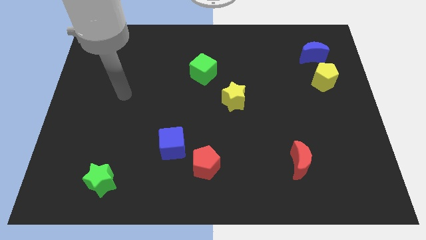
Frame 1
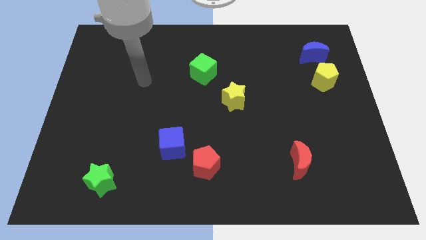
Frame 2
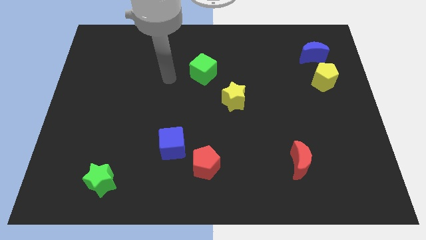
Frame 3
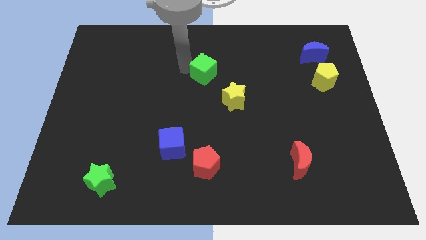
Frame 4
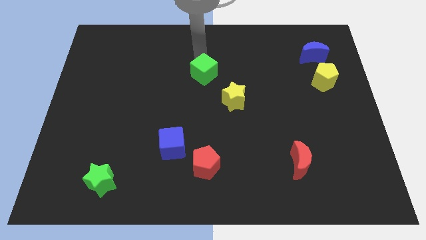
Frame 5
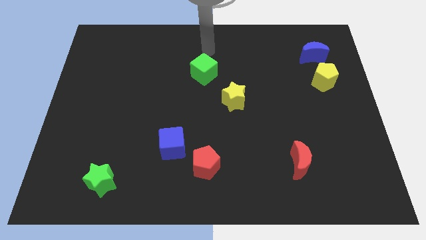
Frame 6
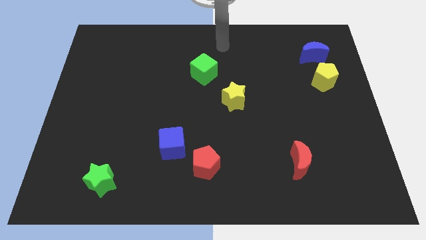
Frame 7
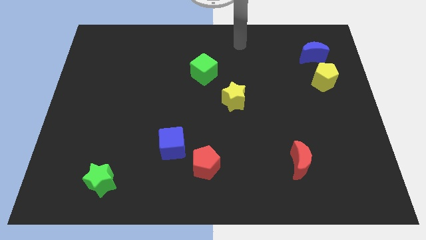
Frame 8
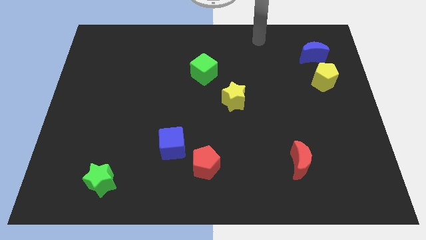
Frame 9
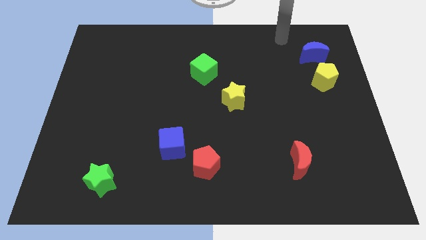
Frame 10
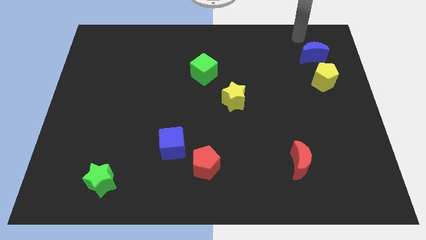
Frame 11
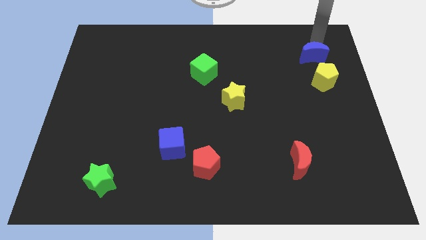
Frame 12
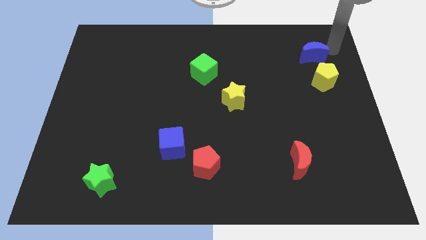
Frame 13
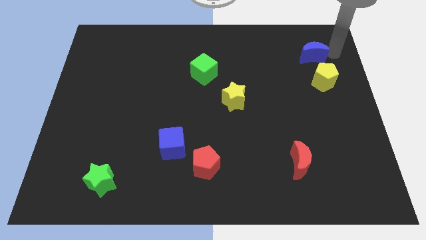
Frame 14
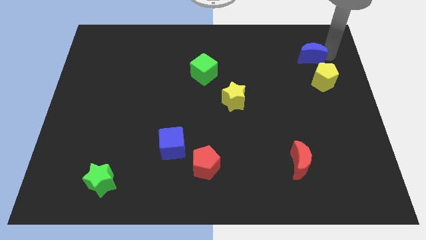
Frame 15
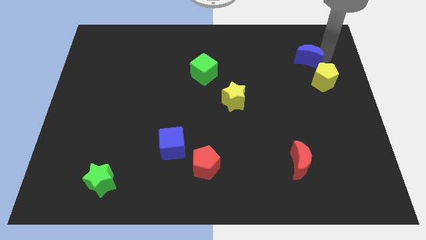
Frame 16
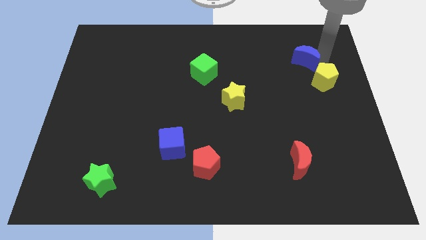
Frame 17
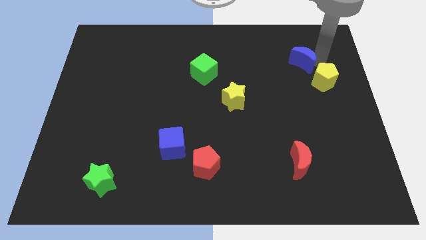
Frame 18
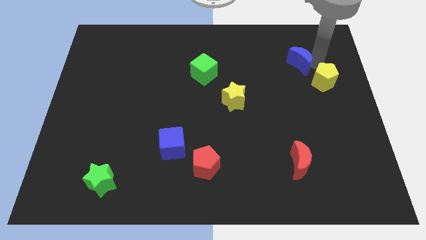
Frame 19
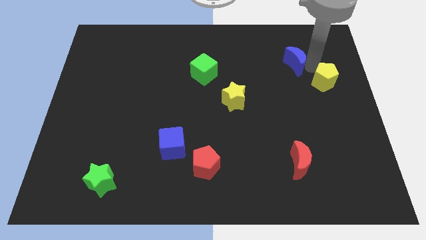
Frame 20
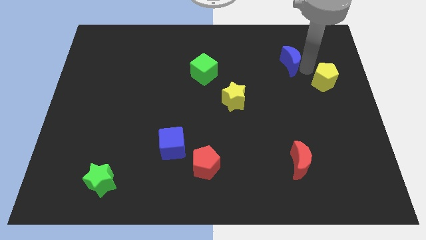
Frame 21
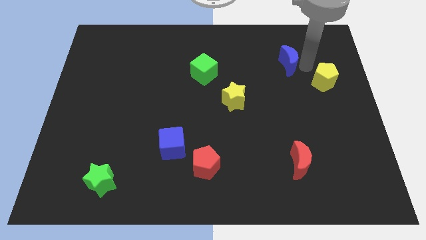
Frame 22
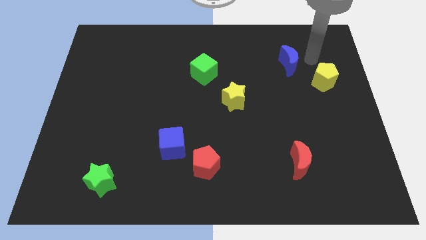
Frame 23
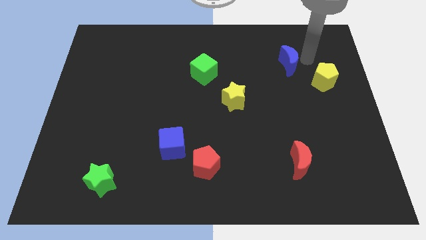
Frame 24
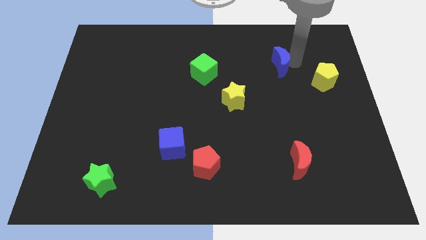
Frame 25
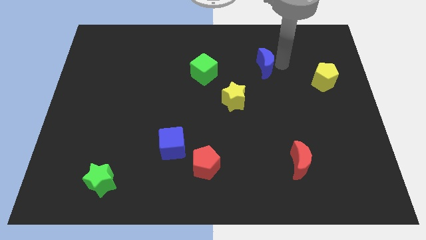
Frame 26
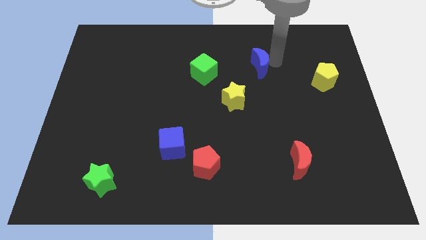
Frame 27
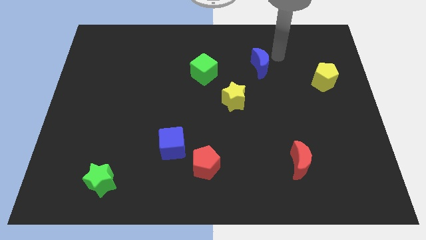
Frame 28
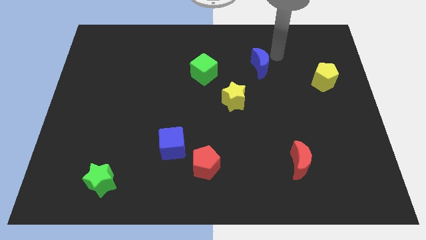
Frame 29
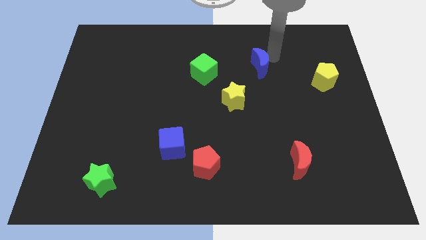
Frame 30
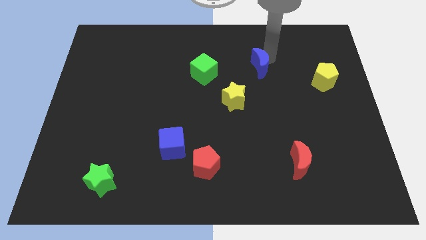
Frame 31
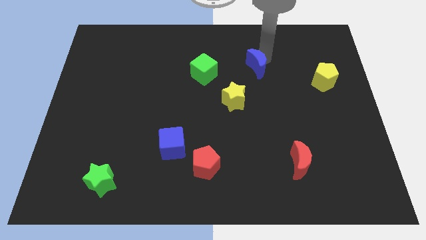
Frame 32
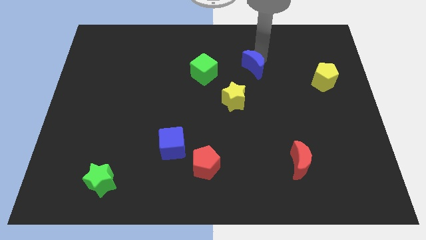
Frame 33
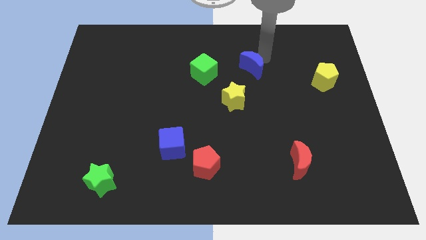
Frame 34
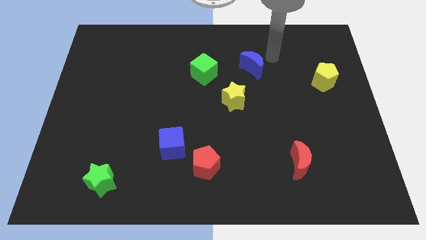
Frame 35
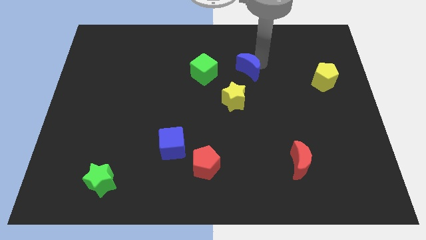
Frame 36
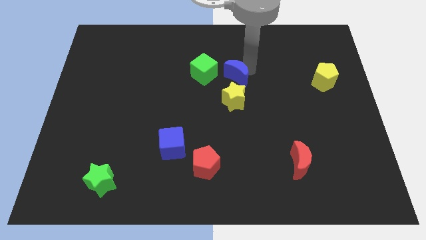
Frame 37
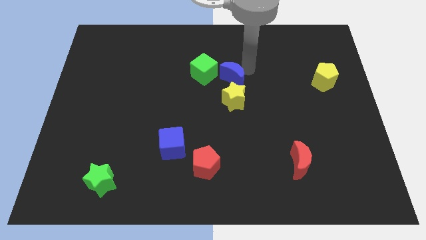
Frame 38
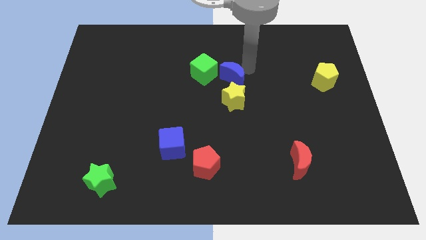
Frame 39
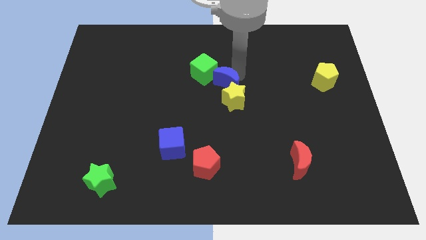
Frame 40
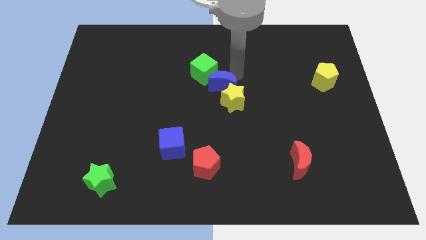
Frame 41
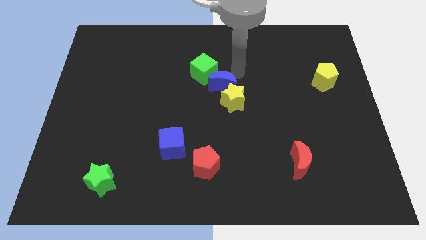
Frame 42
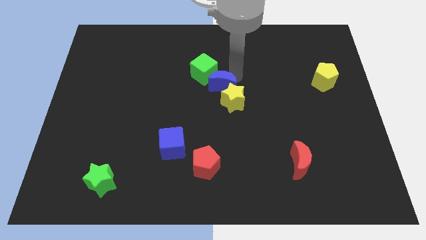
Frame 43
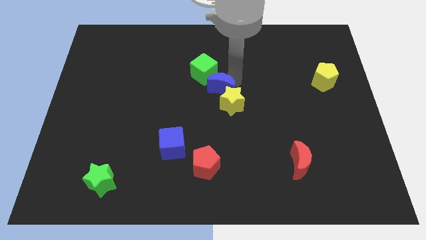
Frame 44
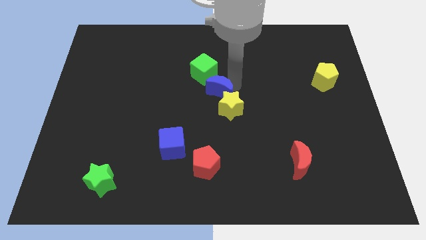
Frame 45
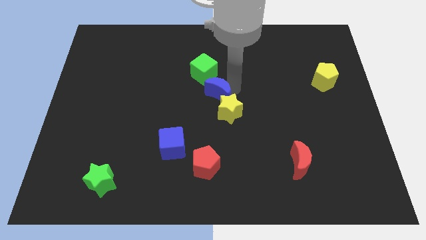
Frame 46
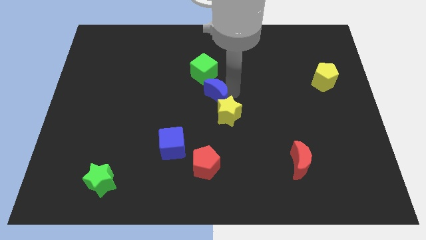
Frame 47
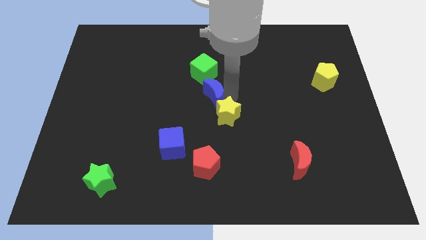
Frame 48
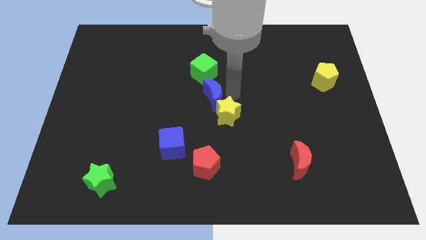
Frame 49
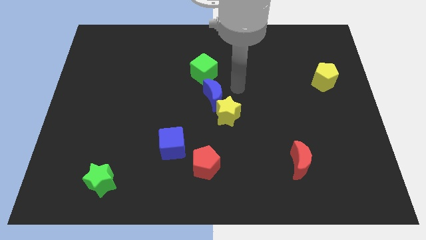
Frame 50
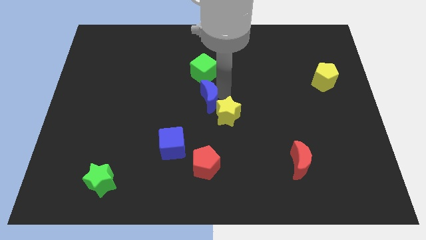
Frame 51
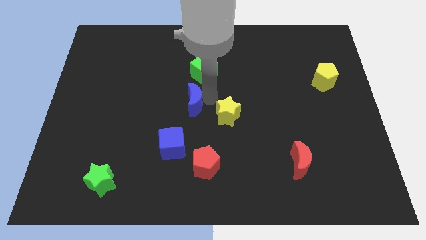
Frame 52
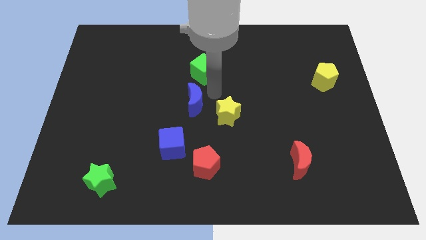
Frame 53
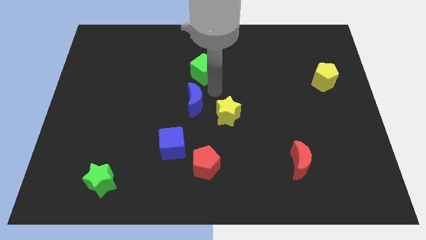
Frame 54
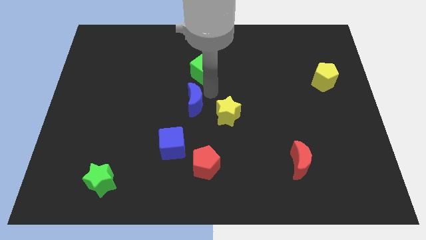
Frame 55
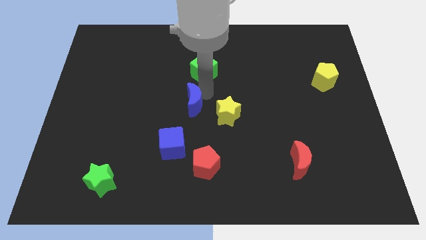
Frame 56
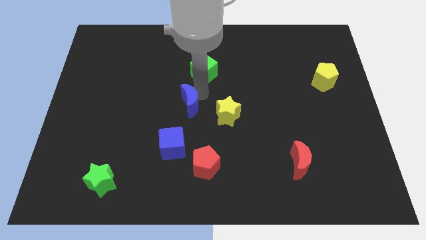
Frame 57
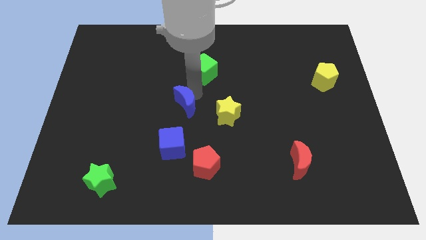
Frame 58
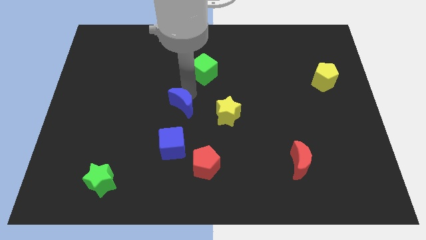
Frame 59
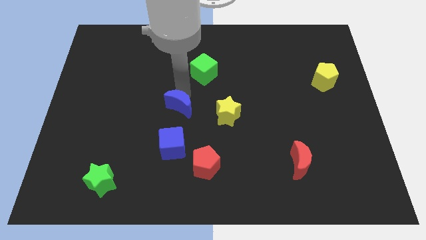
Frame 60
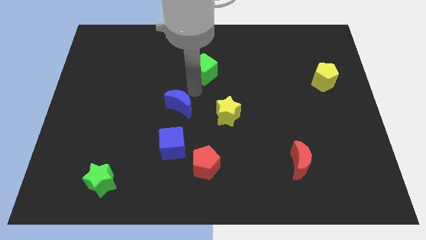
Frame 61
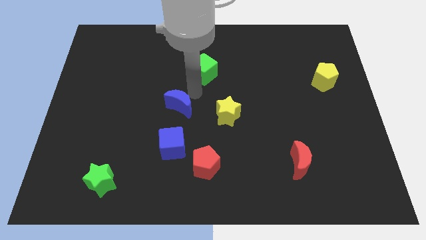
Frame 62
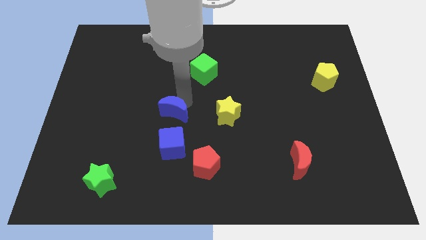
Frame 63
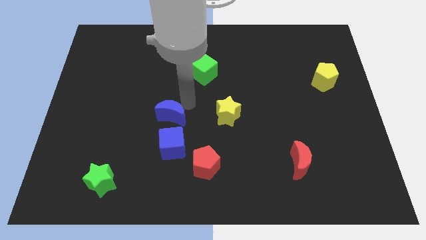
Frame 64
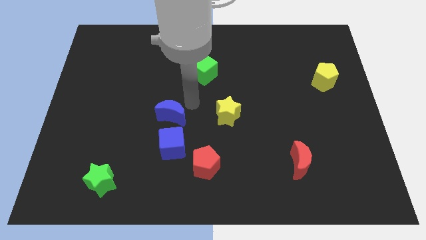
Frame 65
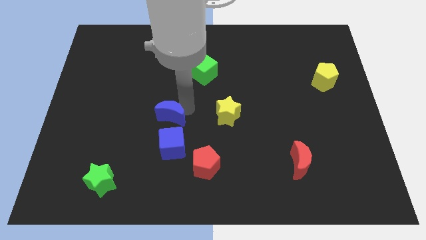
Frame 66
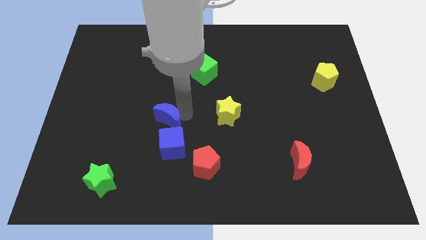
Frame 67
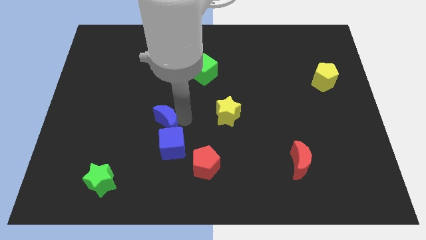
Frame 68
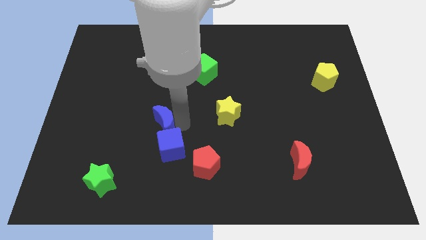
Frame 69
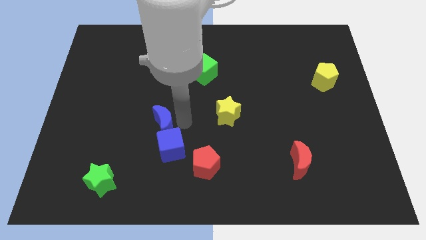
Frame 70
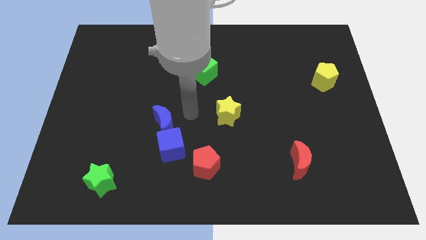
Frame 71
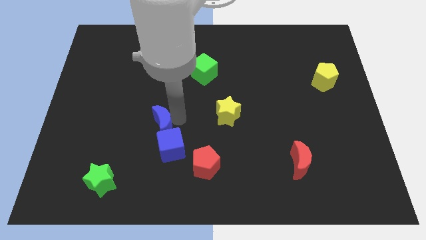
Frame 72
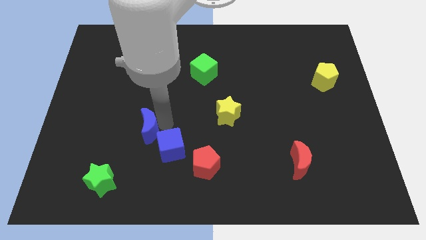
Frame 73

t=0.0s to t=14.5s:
put the blue moon just left of the blue cube
